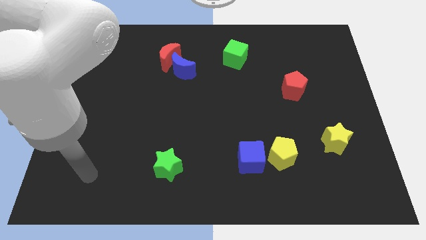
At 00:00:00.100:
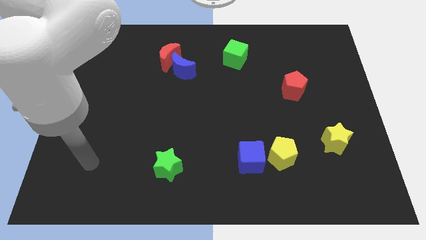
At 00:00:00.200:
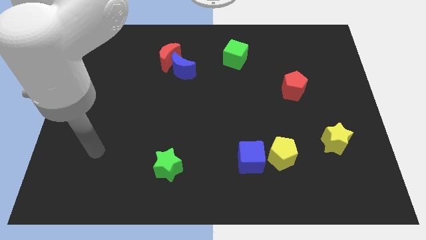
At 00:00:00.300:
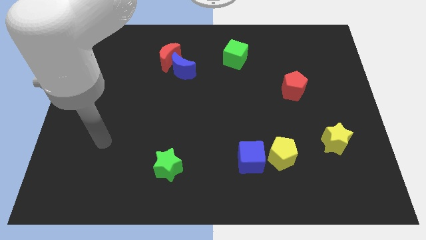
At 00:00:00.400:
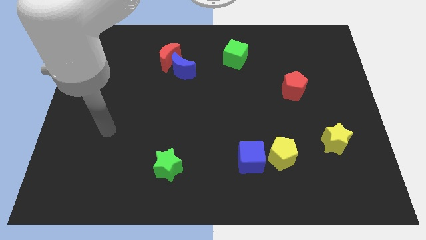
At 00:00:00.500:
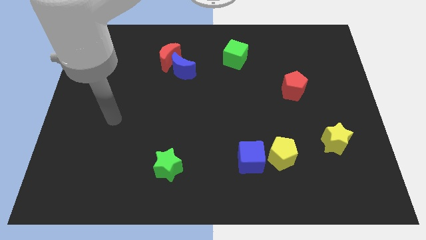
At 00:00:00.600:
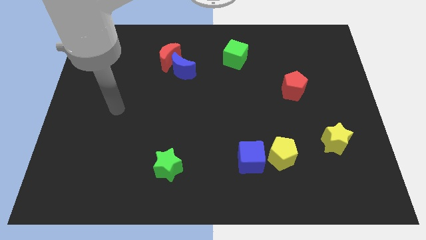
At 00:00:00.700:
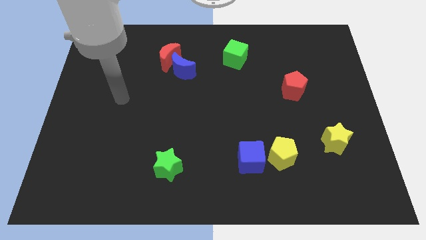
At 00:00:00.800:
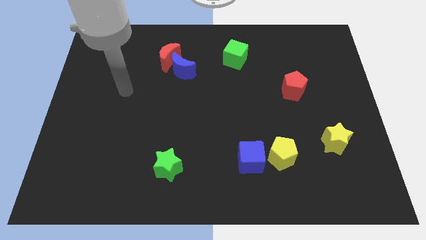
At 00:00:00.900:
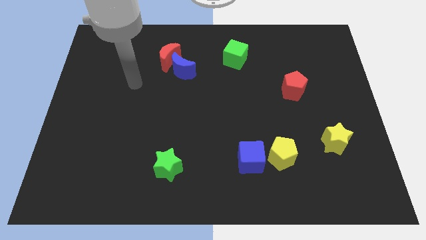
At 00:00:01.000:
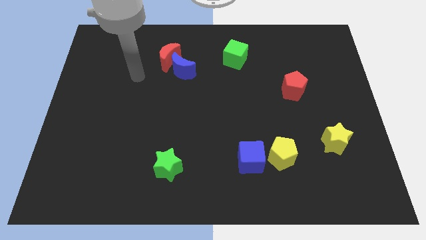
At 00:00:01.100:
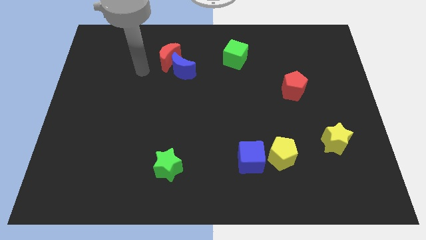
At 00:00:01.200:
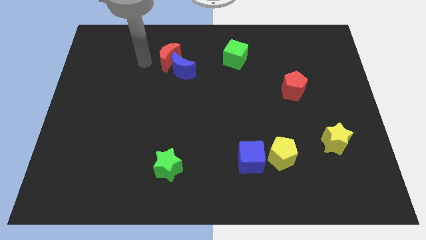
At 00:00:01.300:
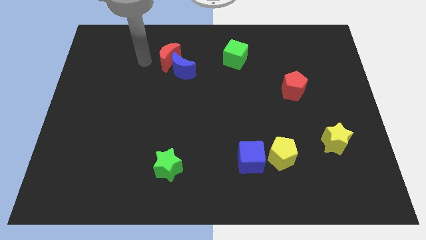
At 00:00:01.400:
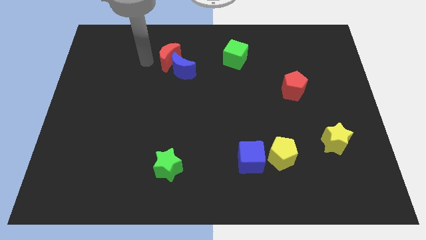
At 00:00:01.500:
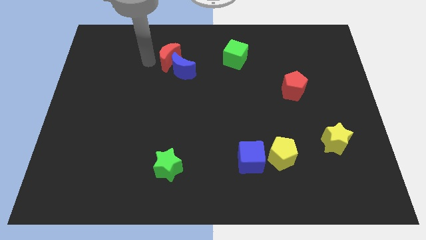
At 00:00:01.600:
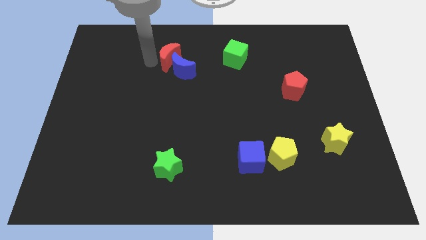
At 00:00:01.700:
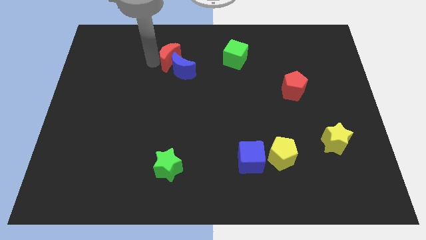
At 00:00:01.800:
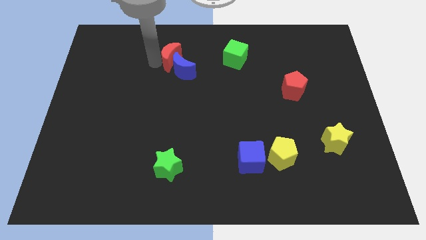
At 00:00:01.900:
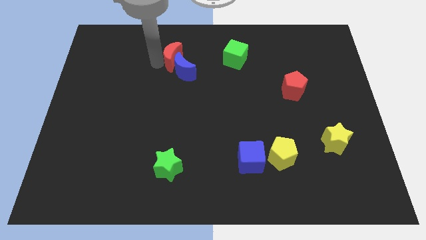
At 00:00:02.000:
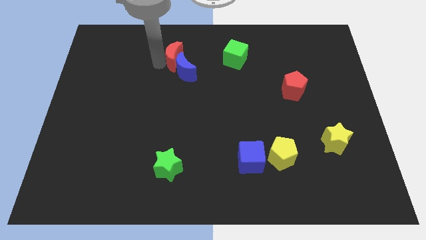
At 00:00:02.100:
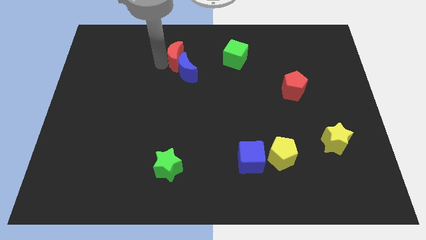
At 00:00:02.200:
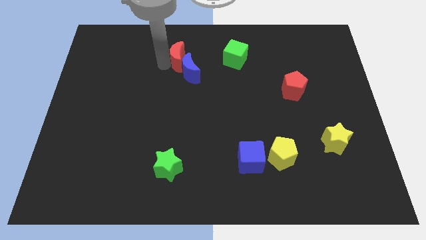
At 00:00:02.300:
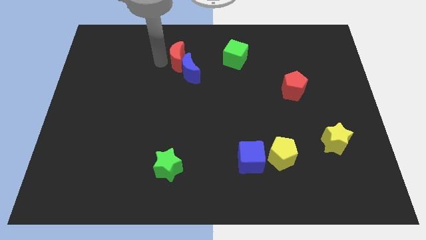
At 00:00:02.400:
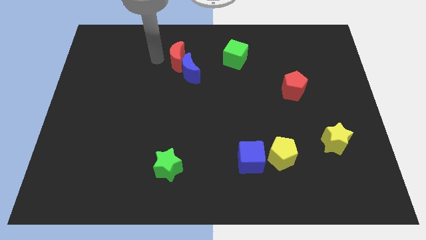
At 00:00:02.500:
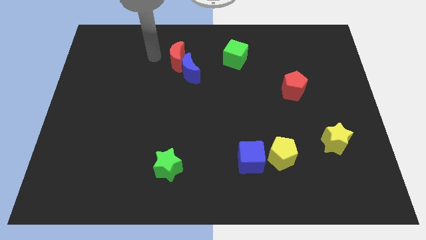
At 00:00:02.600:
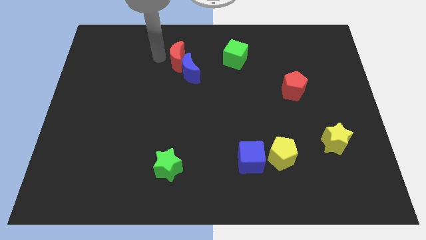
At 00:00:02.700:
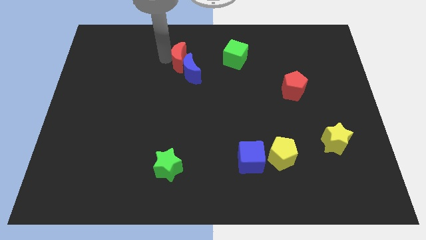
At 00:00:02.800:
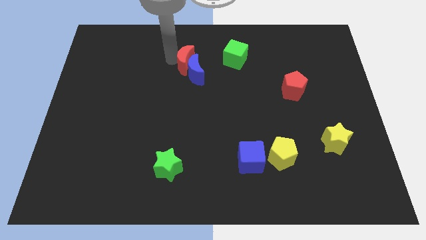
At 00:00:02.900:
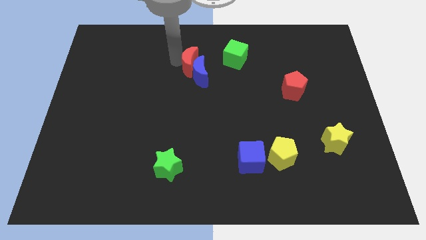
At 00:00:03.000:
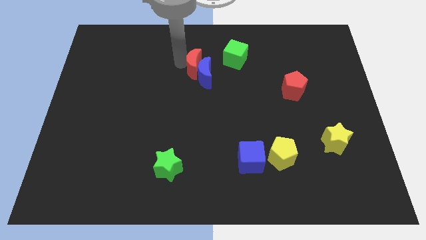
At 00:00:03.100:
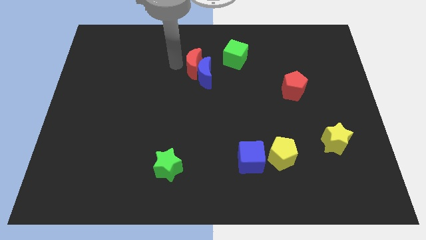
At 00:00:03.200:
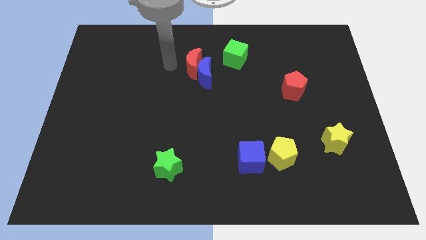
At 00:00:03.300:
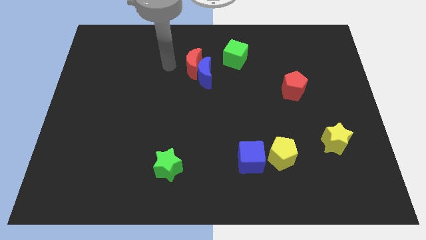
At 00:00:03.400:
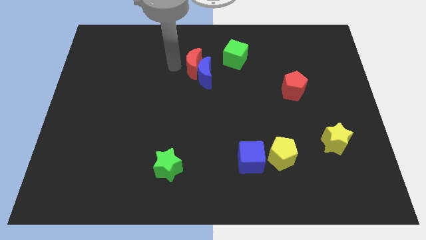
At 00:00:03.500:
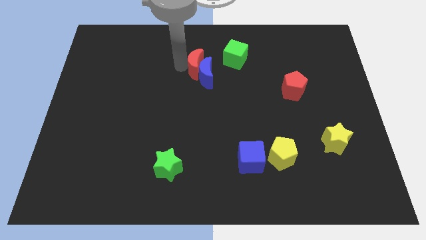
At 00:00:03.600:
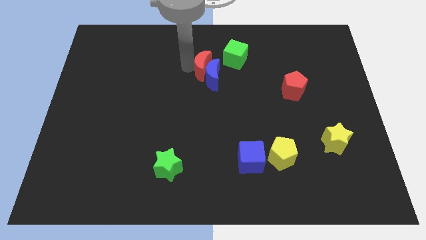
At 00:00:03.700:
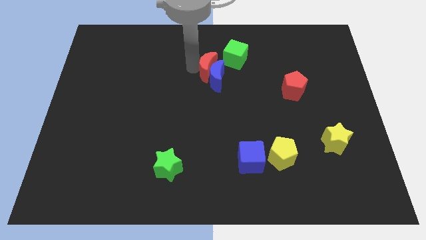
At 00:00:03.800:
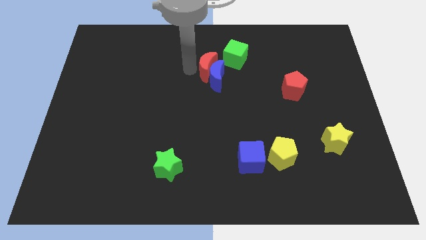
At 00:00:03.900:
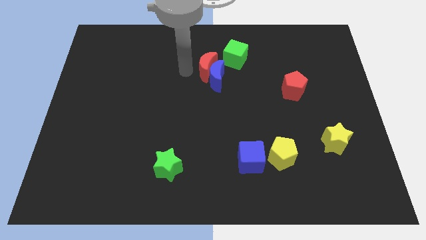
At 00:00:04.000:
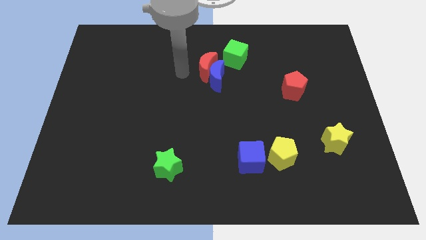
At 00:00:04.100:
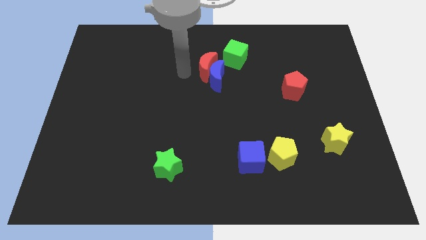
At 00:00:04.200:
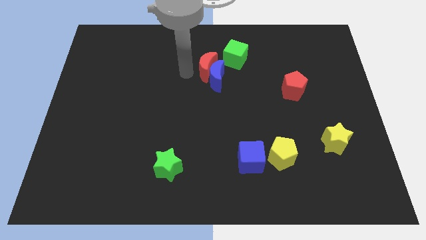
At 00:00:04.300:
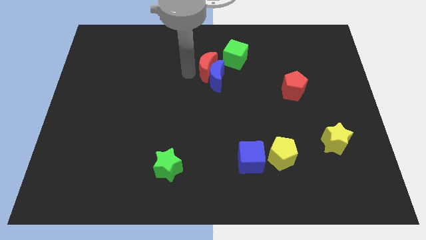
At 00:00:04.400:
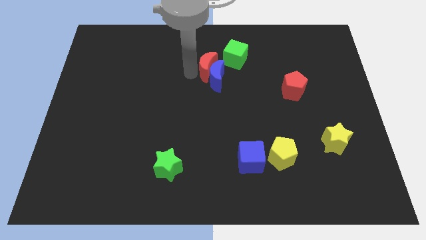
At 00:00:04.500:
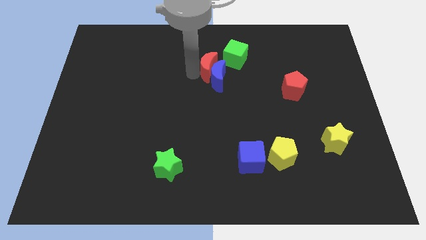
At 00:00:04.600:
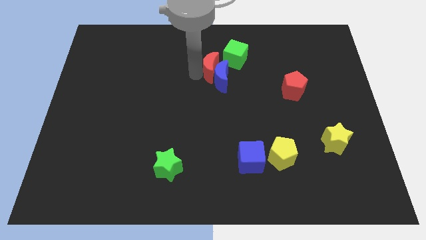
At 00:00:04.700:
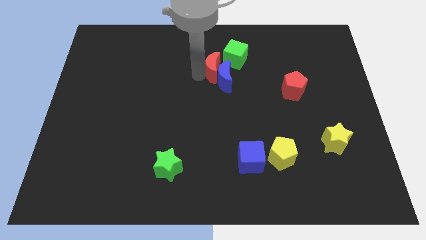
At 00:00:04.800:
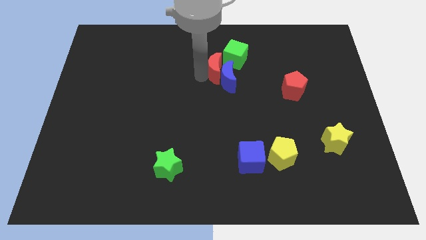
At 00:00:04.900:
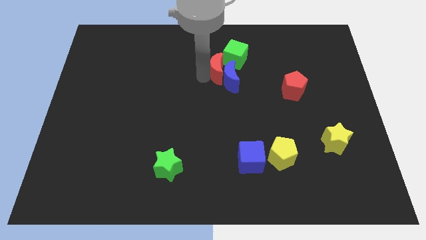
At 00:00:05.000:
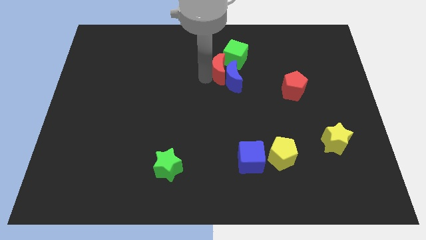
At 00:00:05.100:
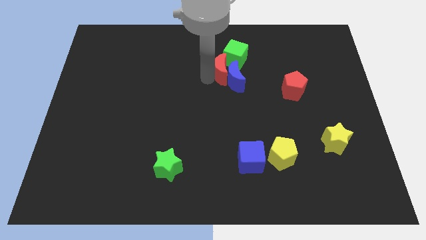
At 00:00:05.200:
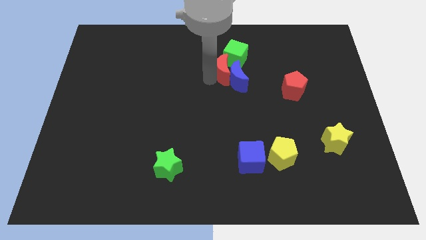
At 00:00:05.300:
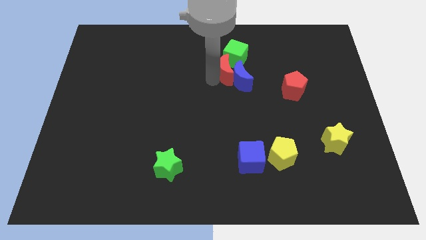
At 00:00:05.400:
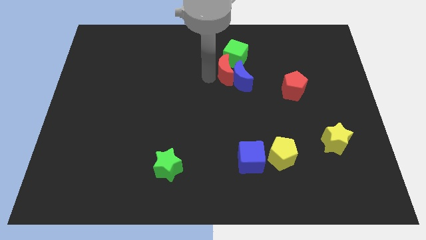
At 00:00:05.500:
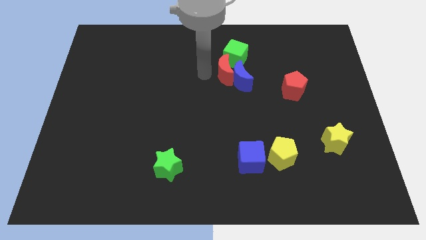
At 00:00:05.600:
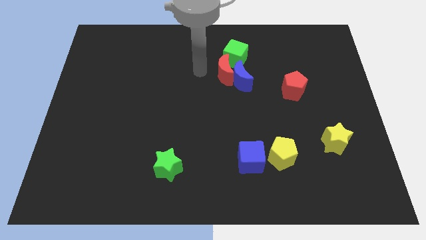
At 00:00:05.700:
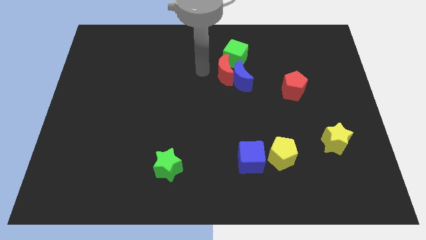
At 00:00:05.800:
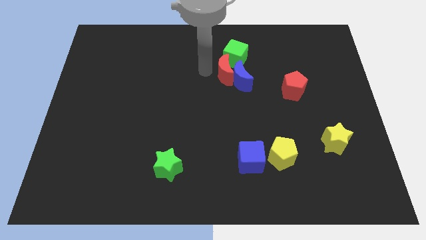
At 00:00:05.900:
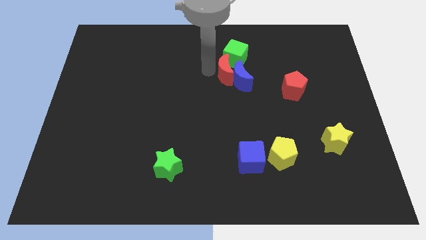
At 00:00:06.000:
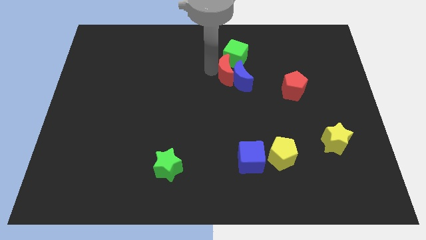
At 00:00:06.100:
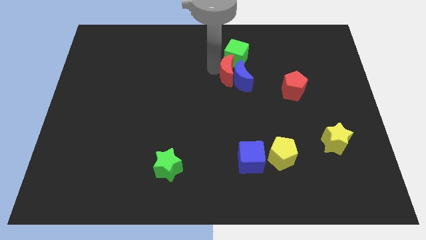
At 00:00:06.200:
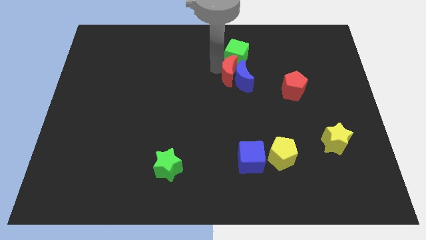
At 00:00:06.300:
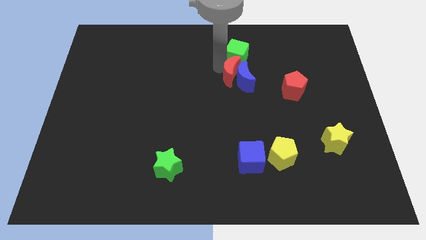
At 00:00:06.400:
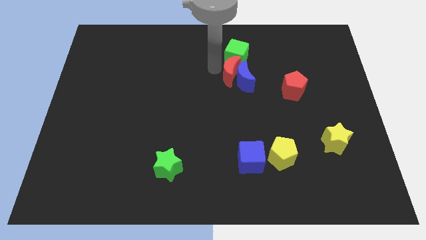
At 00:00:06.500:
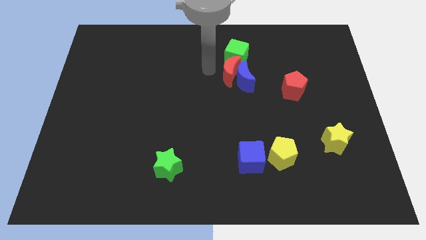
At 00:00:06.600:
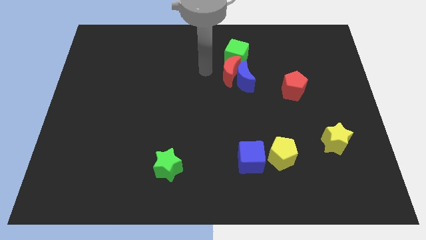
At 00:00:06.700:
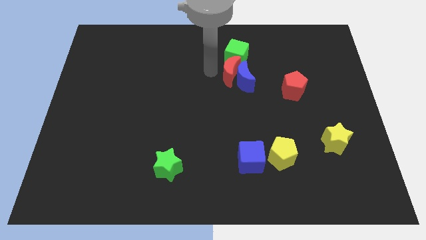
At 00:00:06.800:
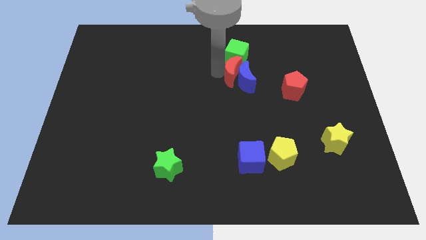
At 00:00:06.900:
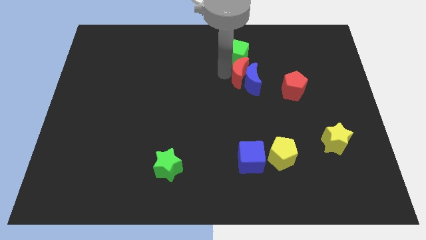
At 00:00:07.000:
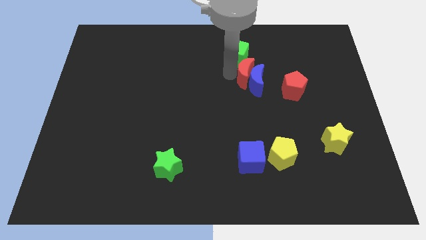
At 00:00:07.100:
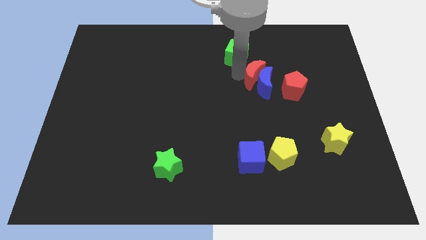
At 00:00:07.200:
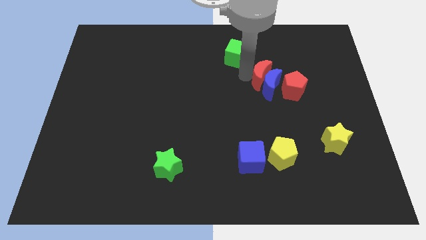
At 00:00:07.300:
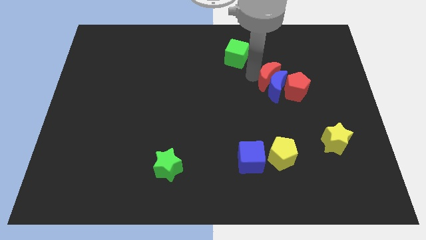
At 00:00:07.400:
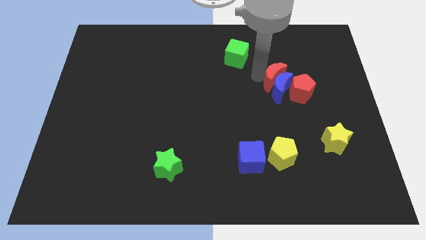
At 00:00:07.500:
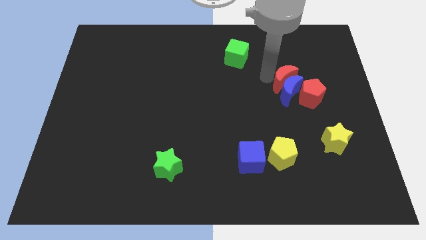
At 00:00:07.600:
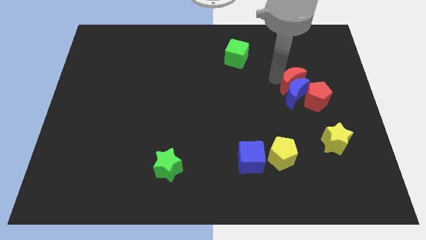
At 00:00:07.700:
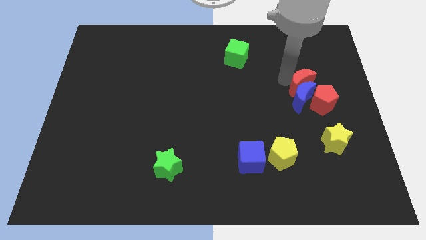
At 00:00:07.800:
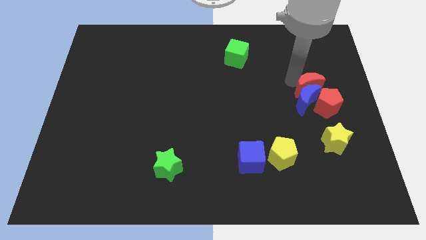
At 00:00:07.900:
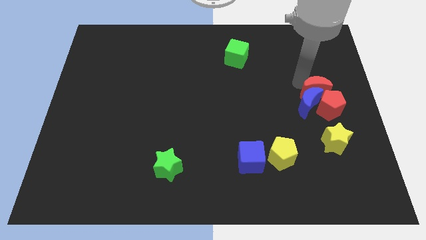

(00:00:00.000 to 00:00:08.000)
slide the red moon to the red pentagon
